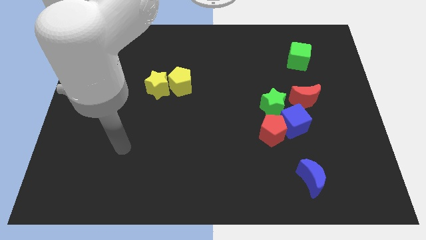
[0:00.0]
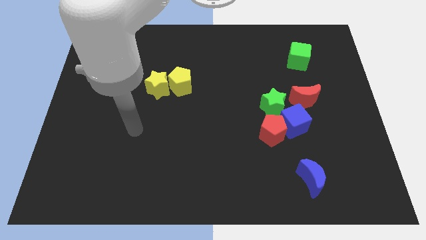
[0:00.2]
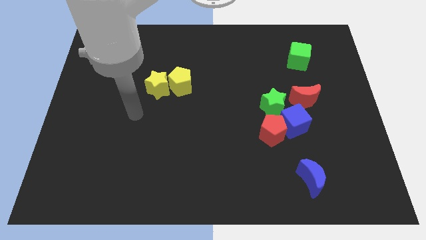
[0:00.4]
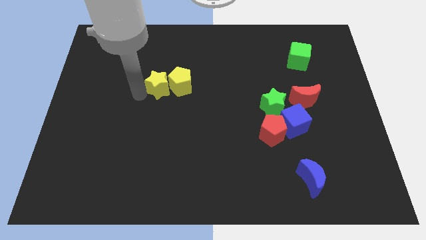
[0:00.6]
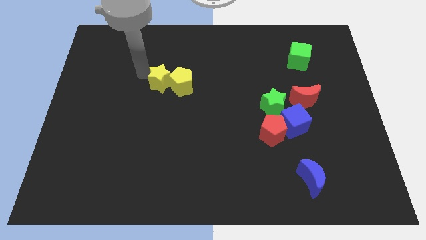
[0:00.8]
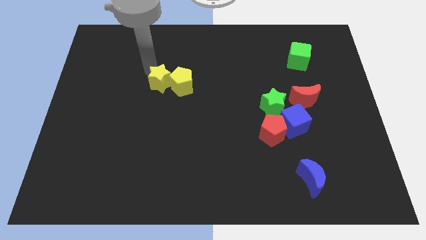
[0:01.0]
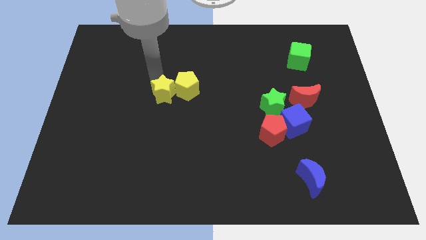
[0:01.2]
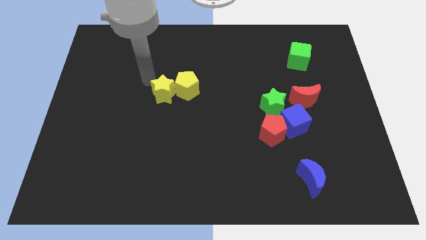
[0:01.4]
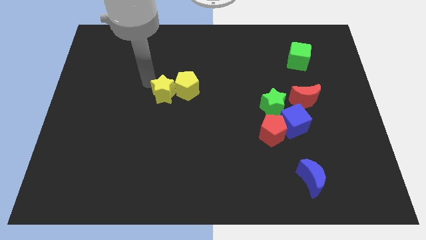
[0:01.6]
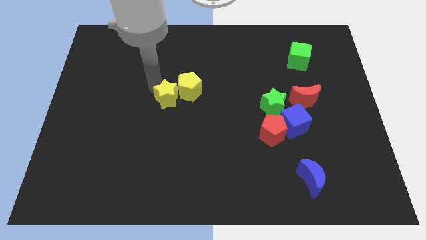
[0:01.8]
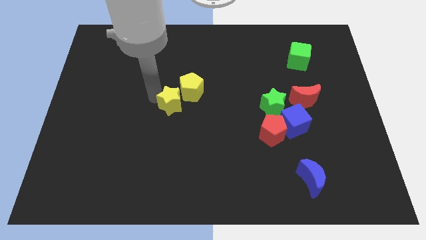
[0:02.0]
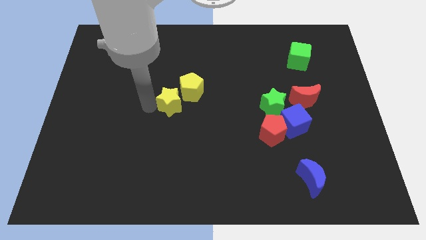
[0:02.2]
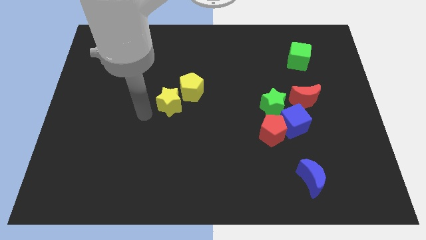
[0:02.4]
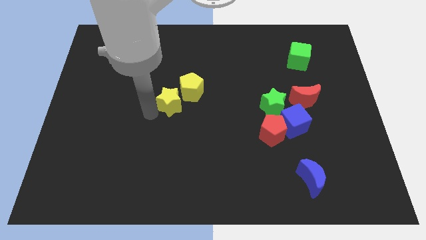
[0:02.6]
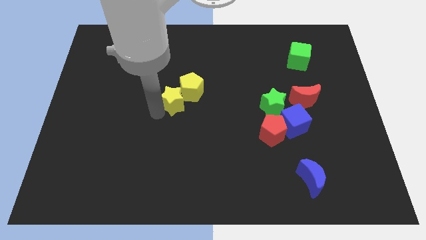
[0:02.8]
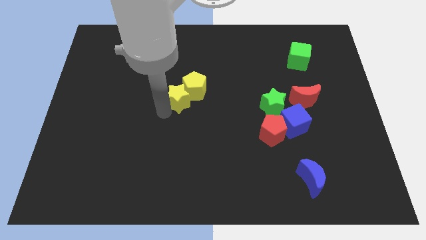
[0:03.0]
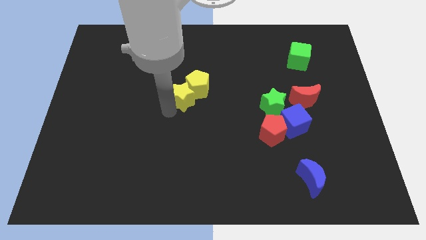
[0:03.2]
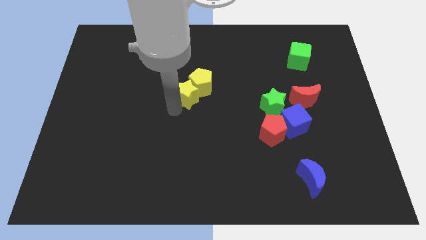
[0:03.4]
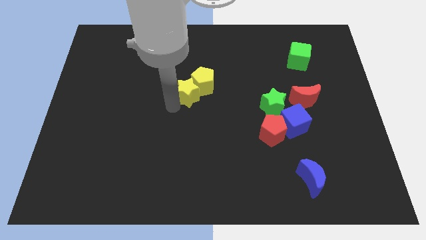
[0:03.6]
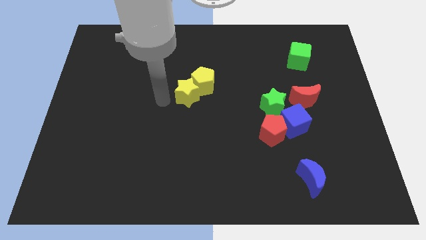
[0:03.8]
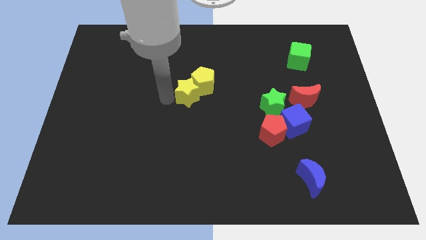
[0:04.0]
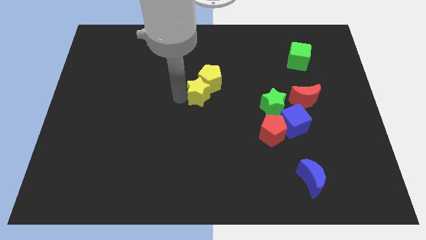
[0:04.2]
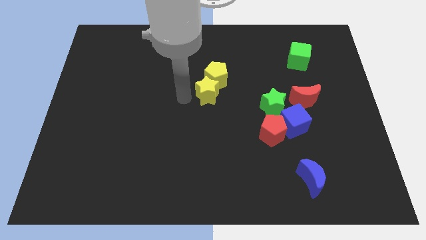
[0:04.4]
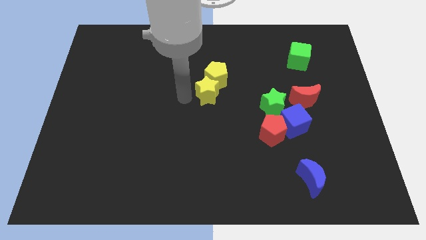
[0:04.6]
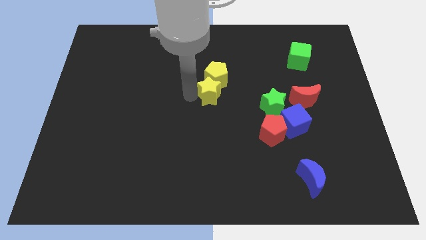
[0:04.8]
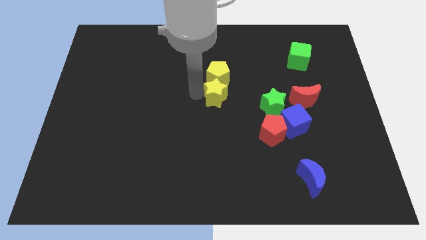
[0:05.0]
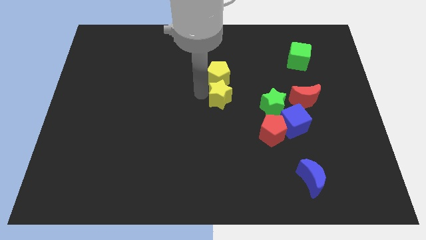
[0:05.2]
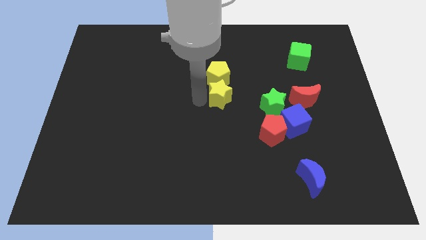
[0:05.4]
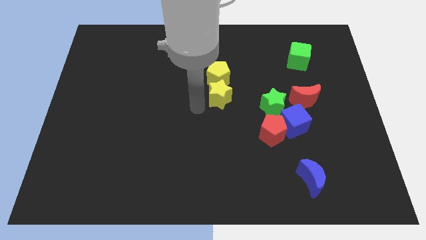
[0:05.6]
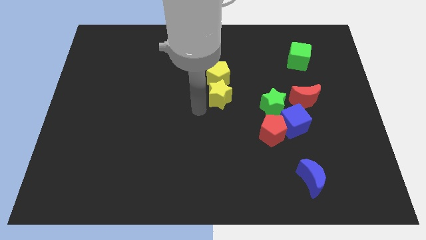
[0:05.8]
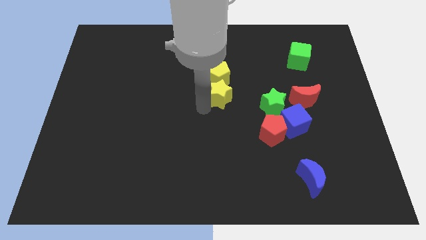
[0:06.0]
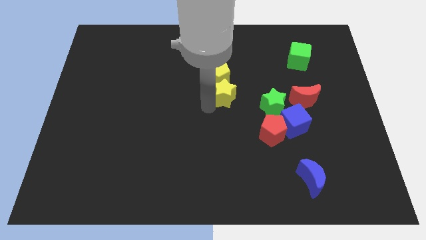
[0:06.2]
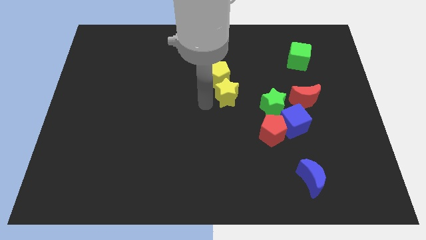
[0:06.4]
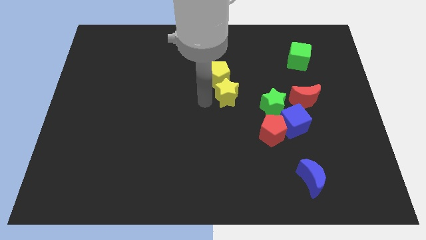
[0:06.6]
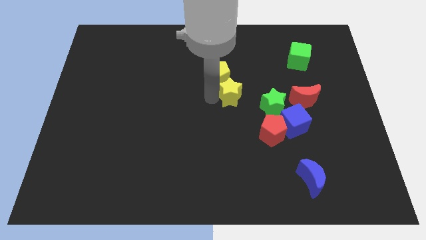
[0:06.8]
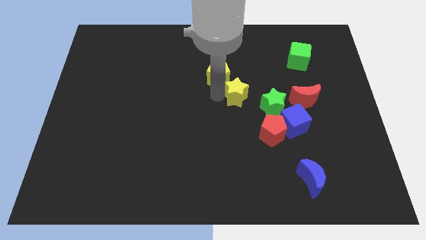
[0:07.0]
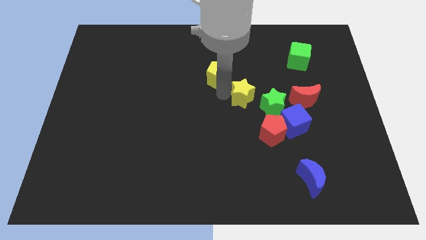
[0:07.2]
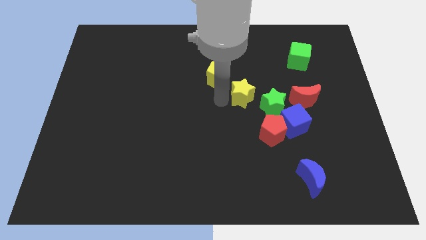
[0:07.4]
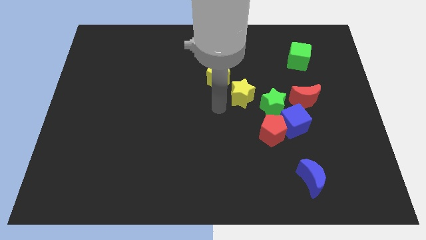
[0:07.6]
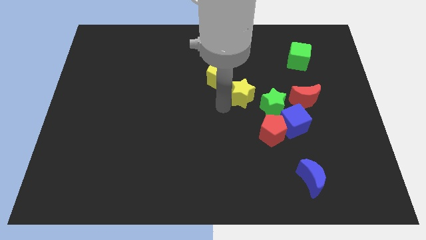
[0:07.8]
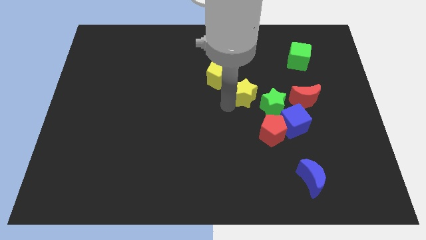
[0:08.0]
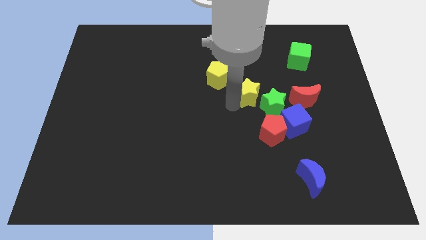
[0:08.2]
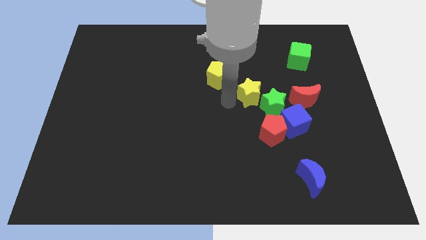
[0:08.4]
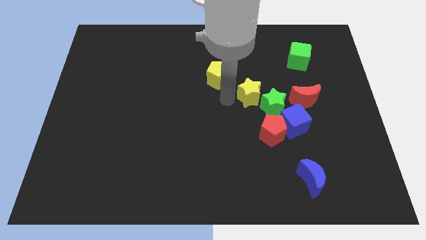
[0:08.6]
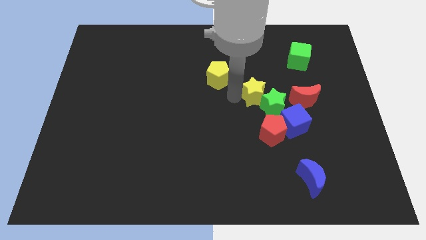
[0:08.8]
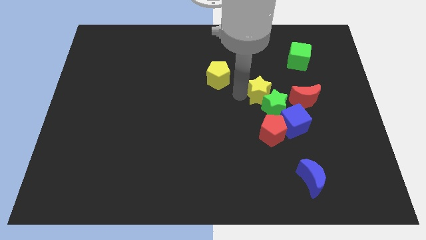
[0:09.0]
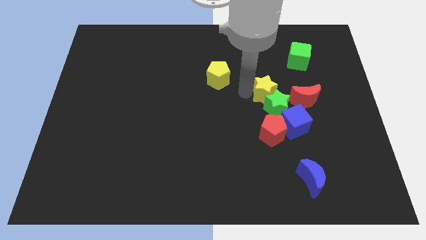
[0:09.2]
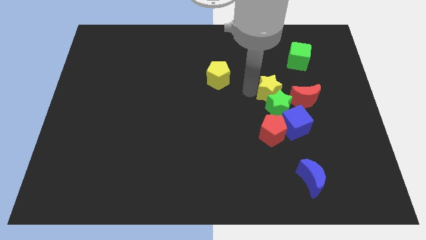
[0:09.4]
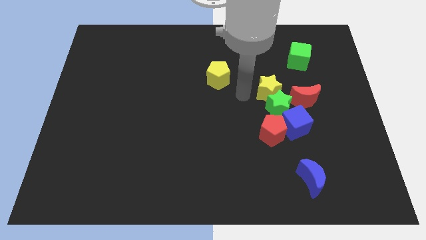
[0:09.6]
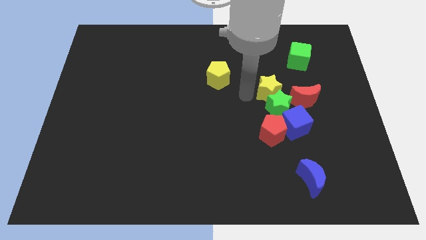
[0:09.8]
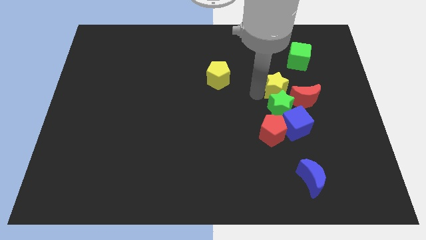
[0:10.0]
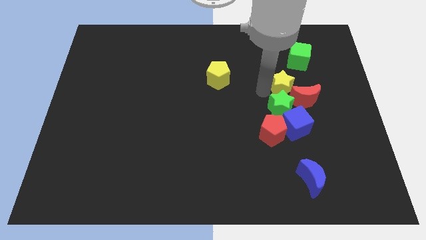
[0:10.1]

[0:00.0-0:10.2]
move the yellow star to the red moon

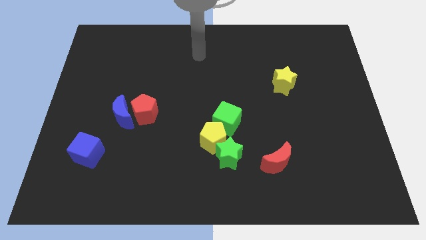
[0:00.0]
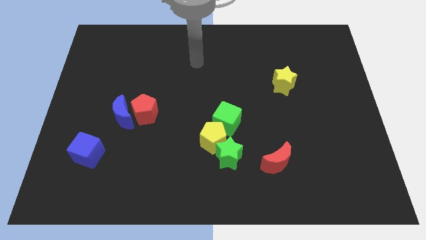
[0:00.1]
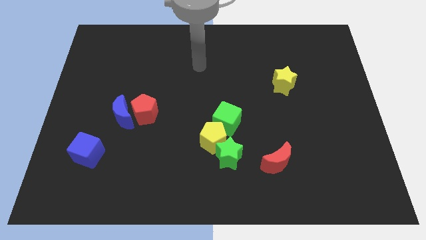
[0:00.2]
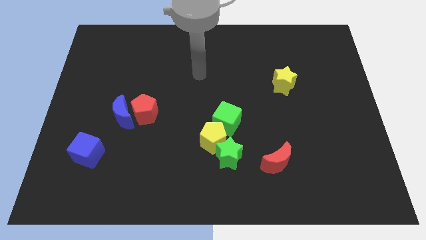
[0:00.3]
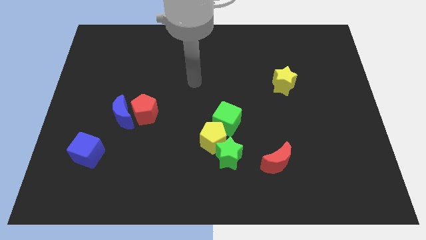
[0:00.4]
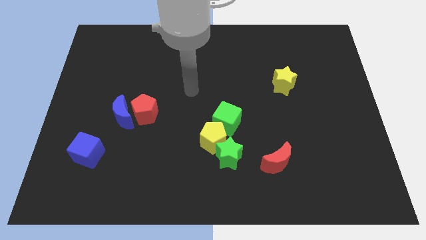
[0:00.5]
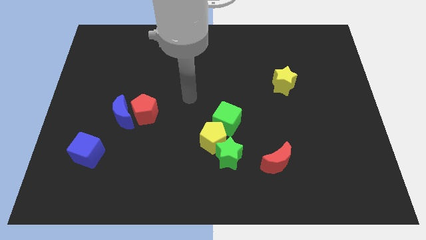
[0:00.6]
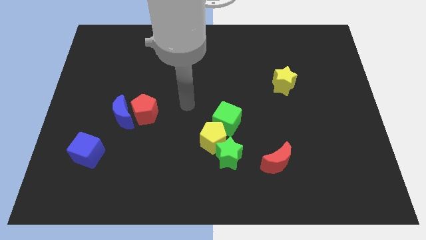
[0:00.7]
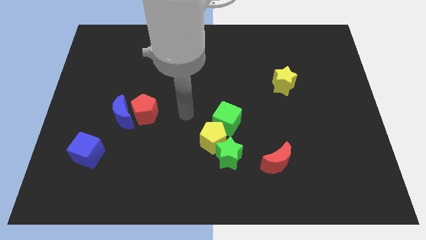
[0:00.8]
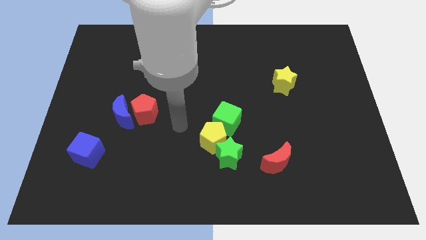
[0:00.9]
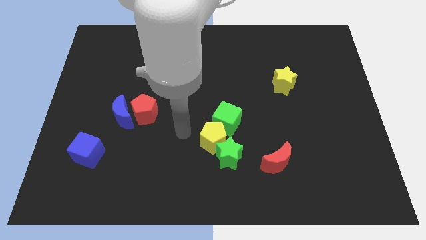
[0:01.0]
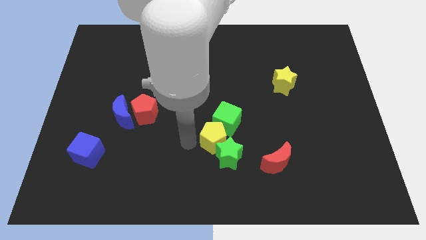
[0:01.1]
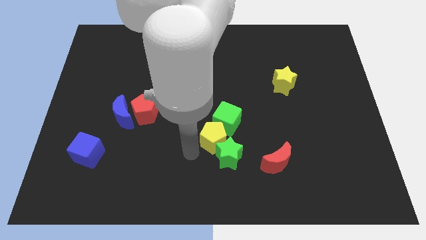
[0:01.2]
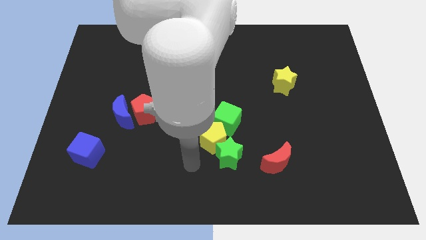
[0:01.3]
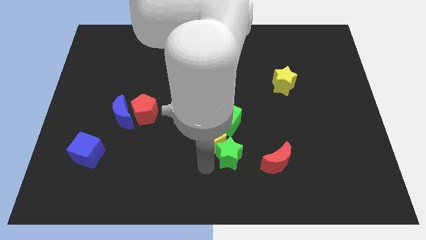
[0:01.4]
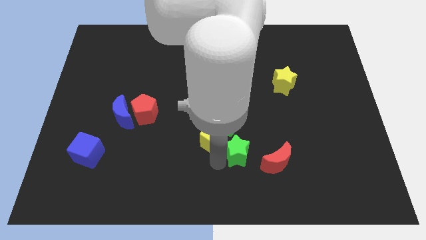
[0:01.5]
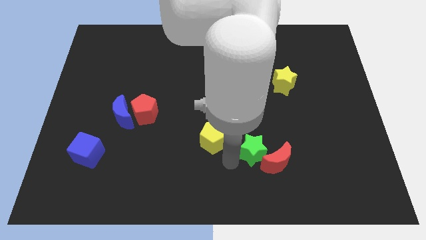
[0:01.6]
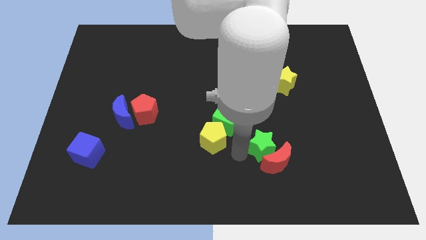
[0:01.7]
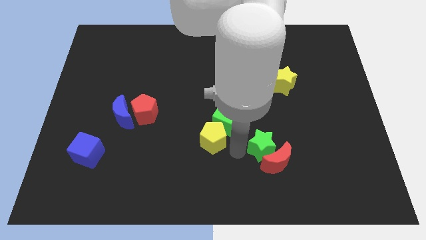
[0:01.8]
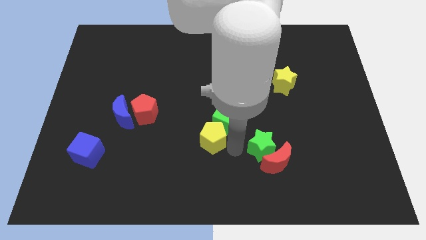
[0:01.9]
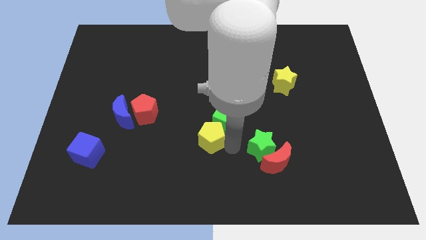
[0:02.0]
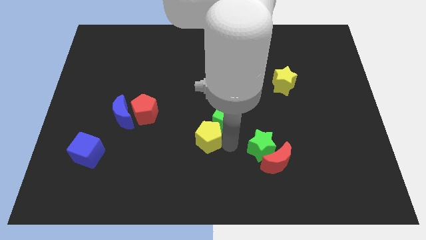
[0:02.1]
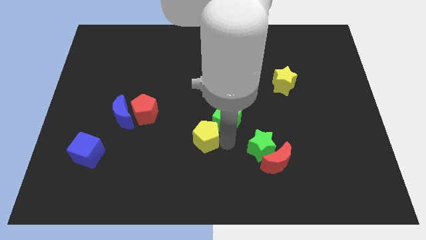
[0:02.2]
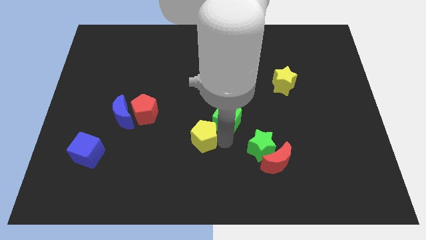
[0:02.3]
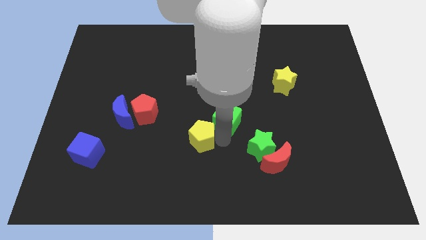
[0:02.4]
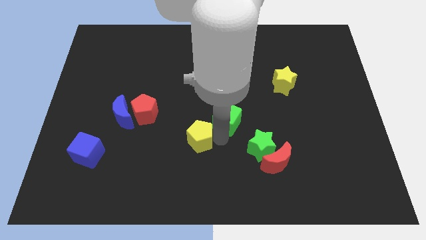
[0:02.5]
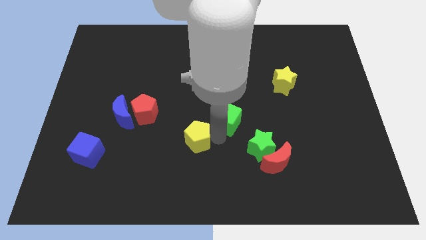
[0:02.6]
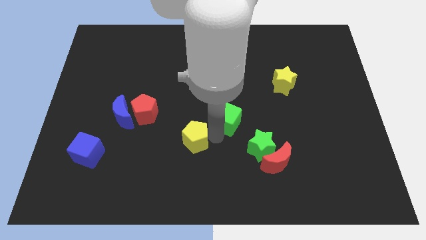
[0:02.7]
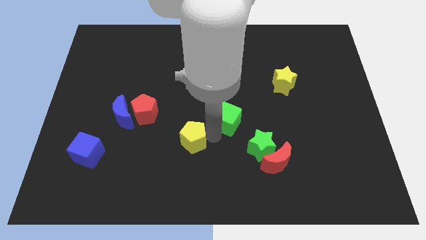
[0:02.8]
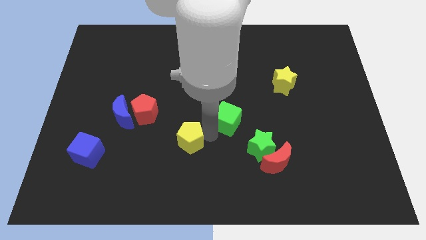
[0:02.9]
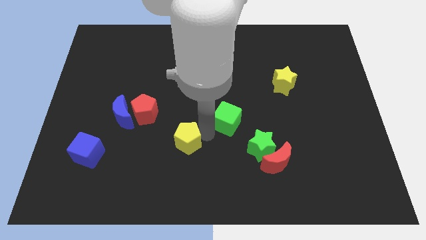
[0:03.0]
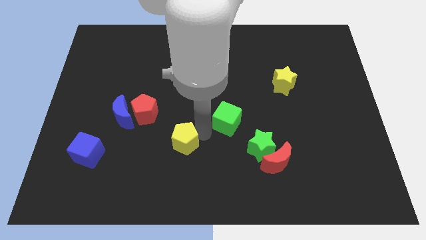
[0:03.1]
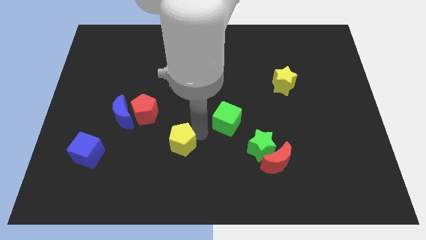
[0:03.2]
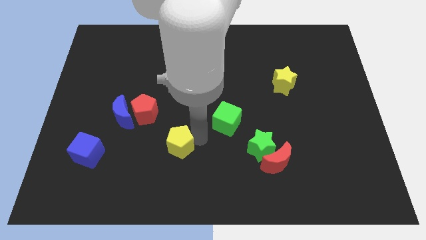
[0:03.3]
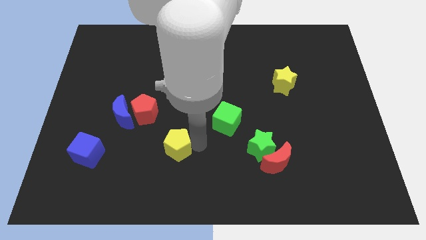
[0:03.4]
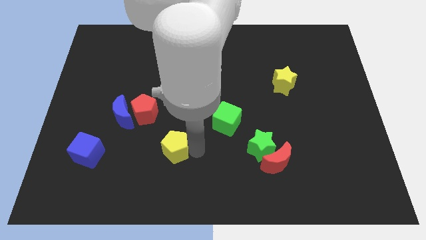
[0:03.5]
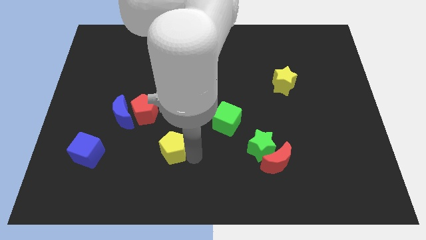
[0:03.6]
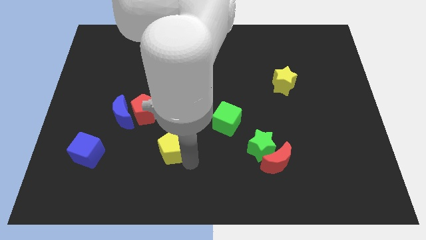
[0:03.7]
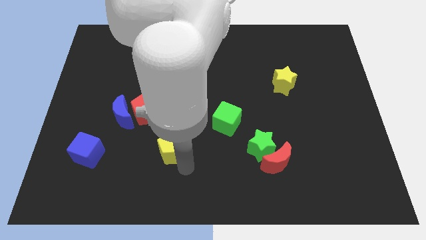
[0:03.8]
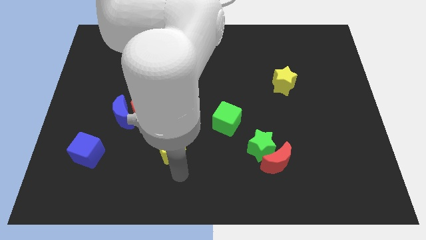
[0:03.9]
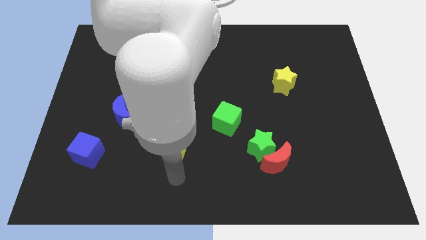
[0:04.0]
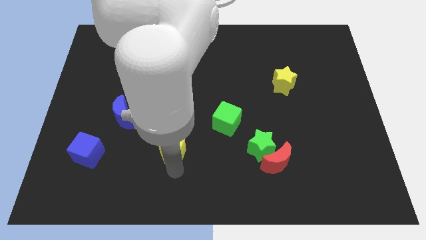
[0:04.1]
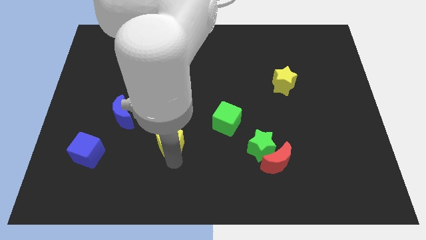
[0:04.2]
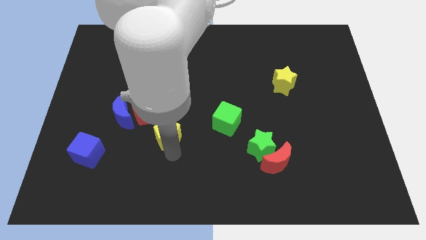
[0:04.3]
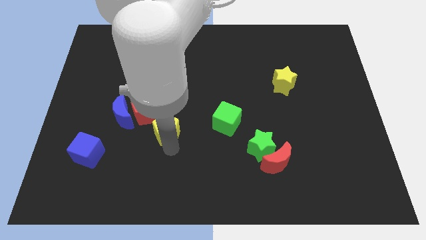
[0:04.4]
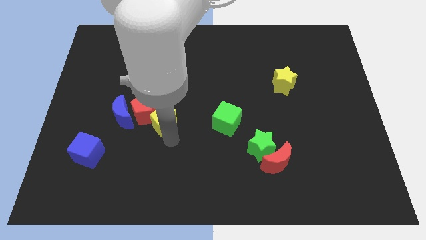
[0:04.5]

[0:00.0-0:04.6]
put the yellow pentagon to the red pentagon
